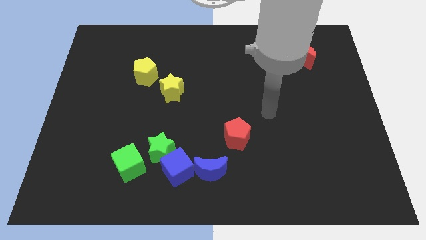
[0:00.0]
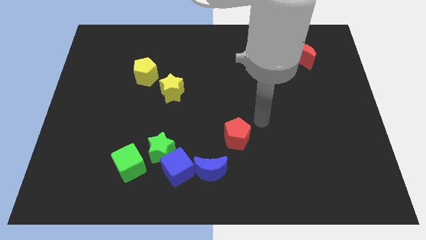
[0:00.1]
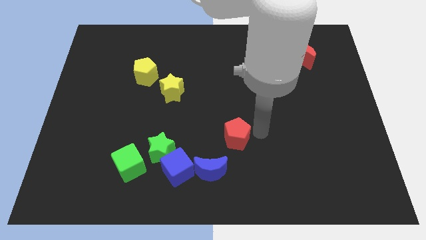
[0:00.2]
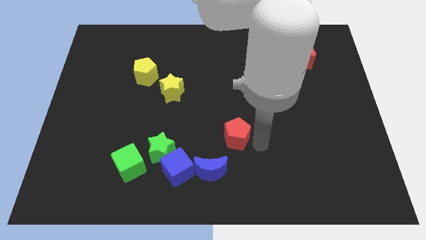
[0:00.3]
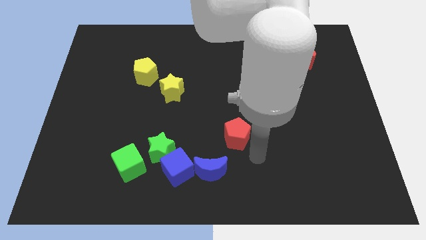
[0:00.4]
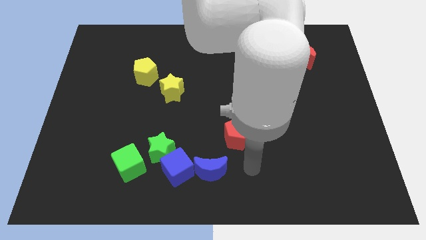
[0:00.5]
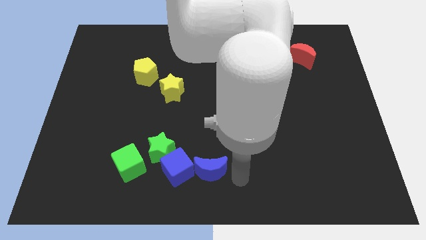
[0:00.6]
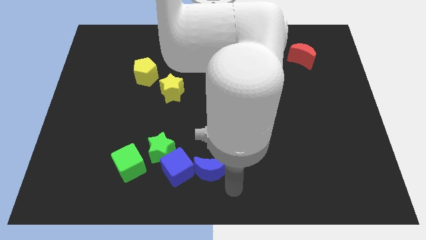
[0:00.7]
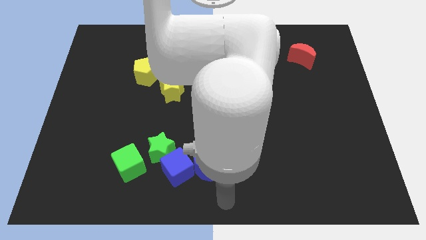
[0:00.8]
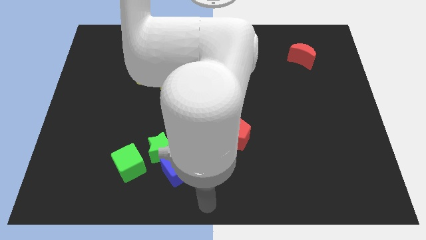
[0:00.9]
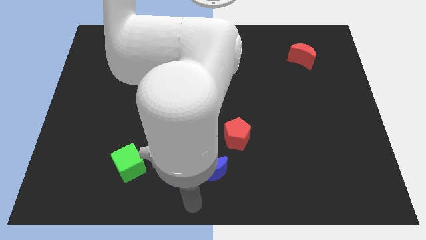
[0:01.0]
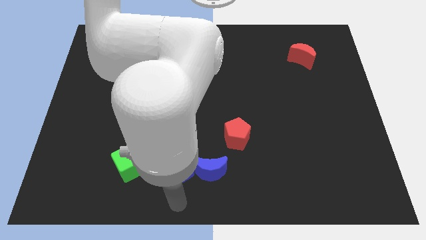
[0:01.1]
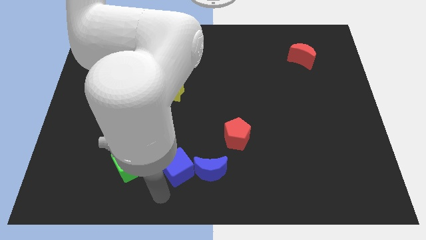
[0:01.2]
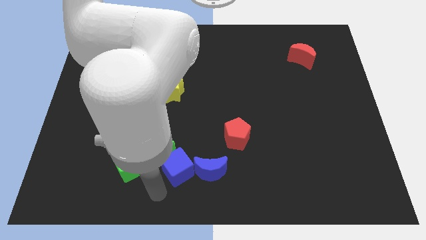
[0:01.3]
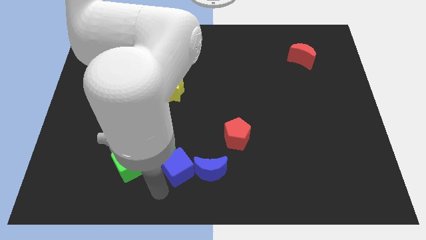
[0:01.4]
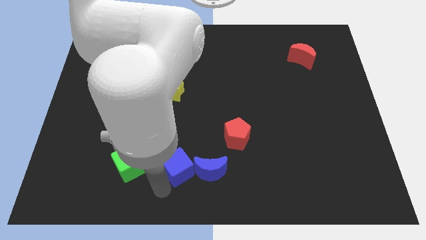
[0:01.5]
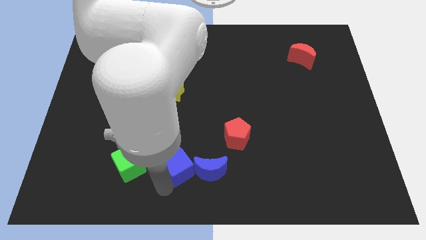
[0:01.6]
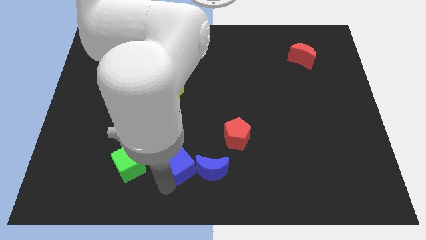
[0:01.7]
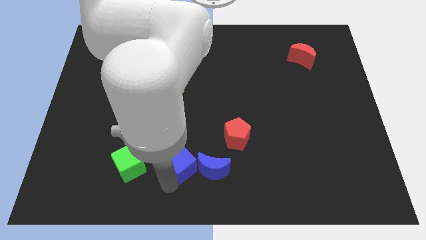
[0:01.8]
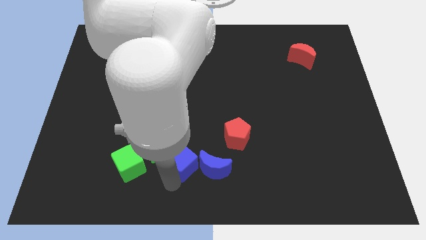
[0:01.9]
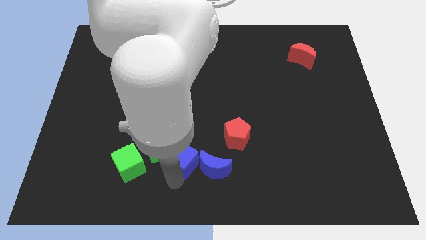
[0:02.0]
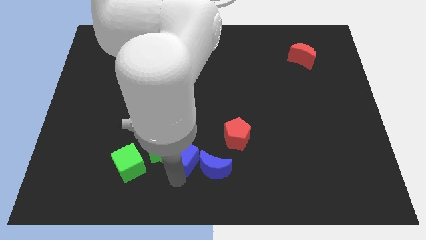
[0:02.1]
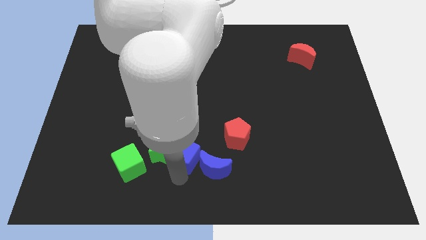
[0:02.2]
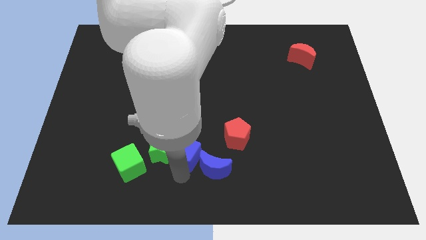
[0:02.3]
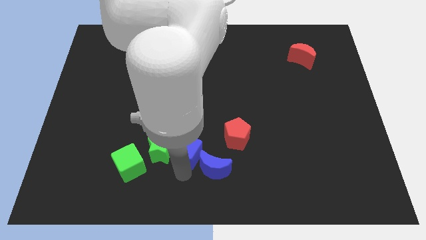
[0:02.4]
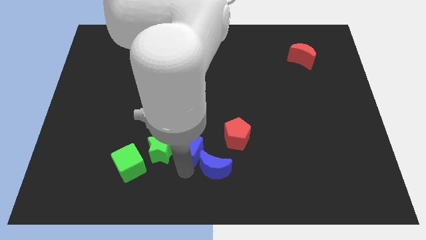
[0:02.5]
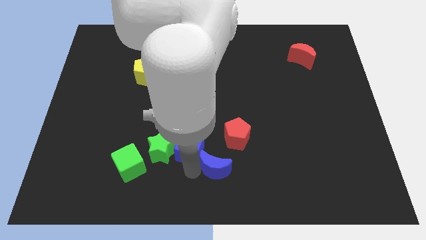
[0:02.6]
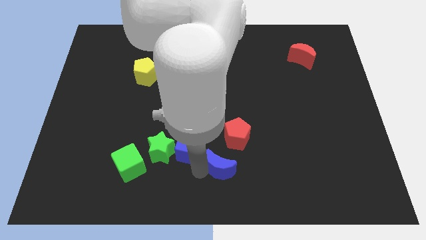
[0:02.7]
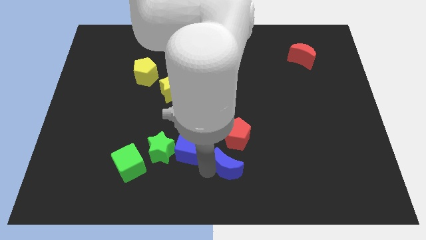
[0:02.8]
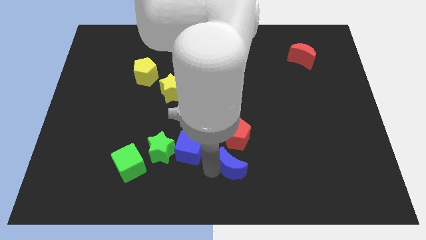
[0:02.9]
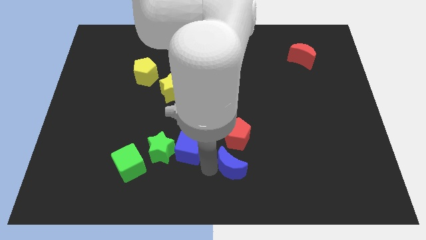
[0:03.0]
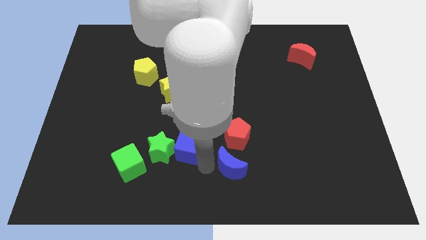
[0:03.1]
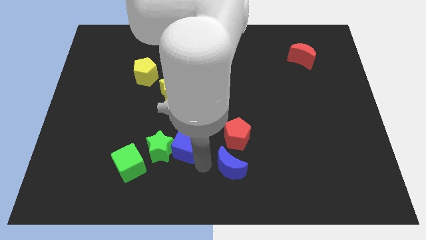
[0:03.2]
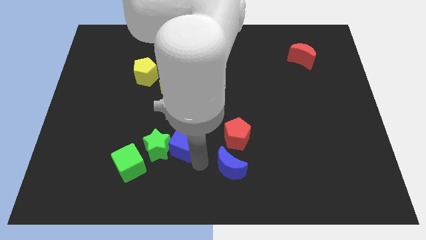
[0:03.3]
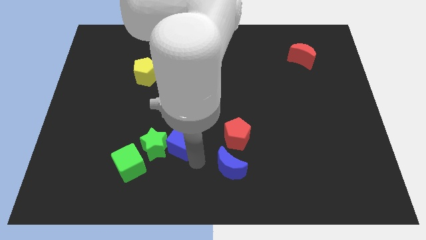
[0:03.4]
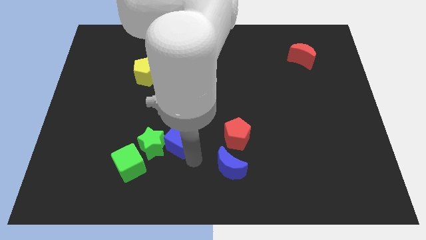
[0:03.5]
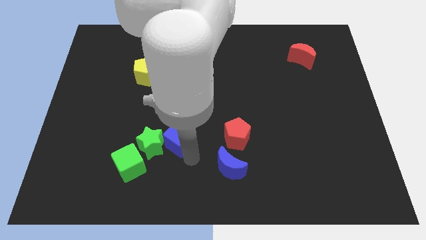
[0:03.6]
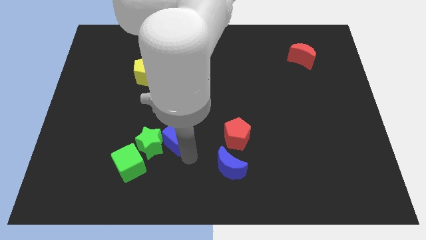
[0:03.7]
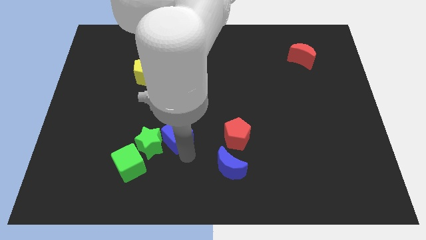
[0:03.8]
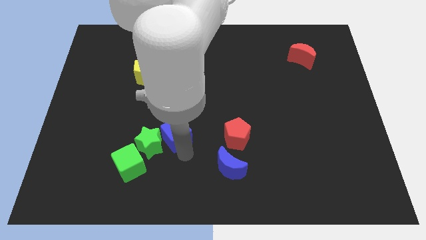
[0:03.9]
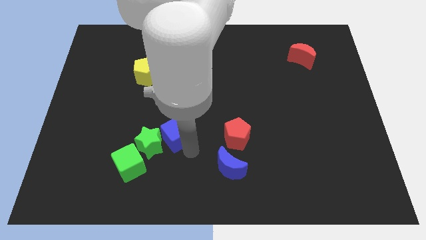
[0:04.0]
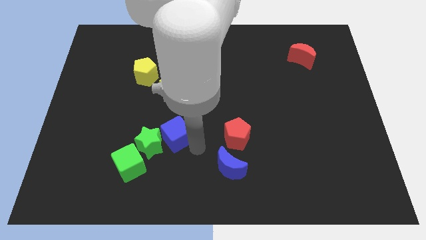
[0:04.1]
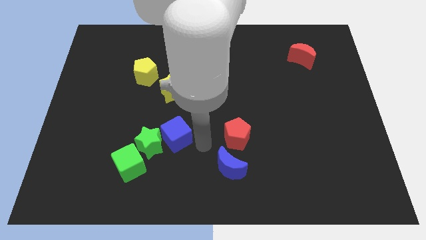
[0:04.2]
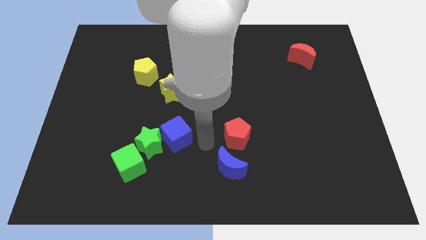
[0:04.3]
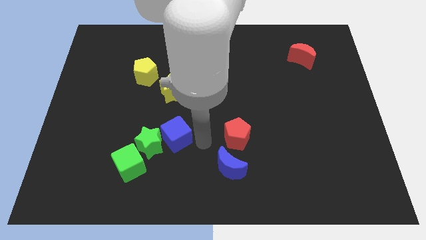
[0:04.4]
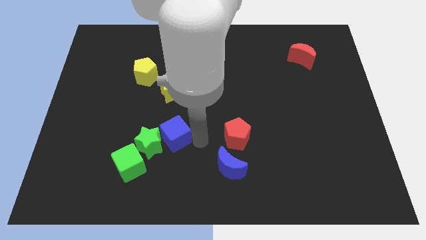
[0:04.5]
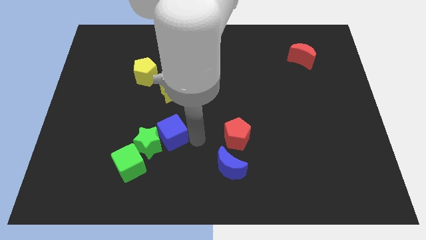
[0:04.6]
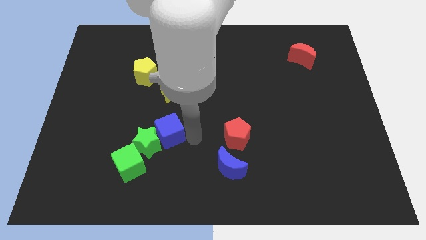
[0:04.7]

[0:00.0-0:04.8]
move the blue cube up and then left a little bit

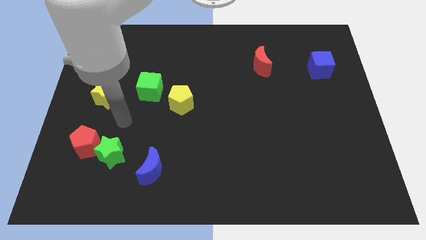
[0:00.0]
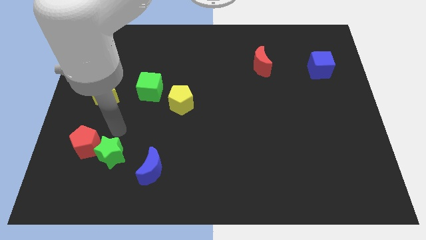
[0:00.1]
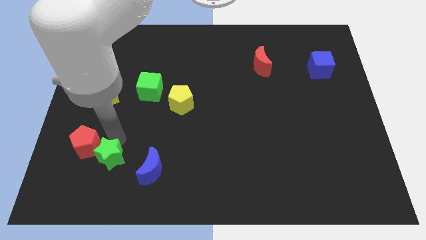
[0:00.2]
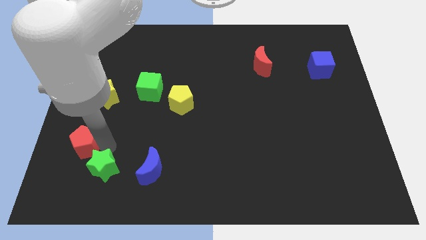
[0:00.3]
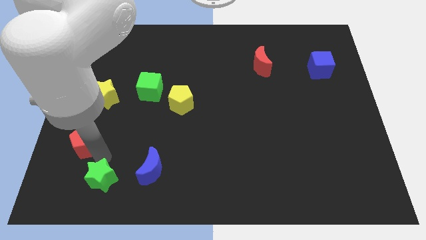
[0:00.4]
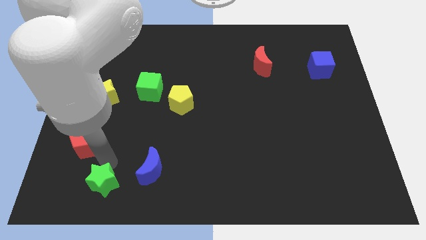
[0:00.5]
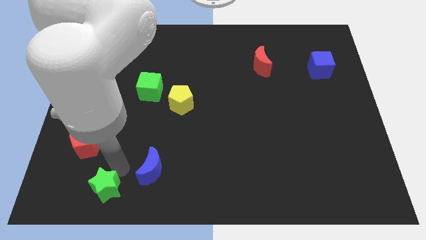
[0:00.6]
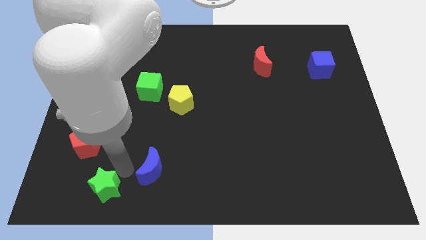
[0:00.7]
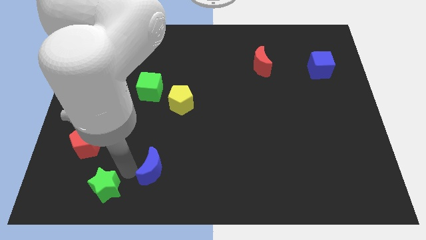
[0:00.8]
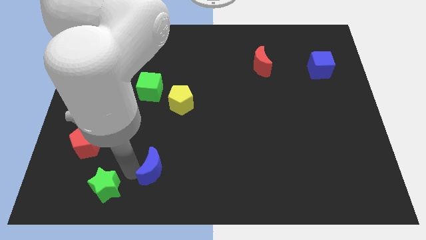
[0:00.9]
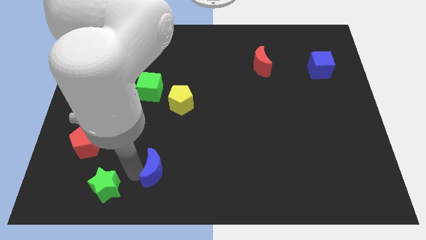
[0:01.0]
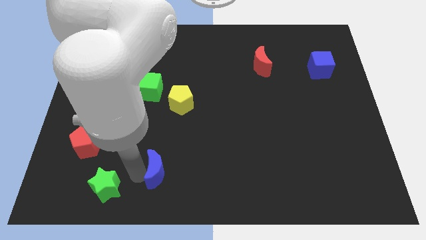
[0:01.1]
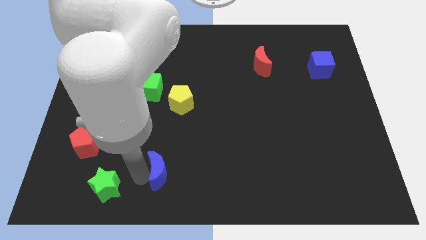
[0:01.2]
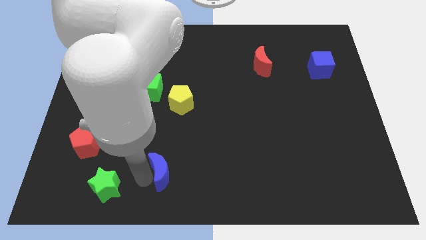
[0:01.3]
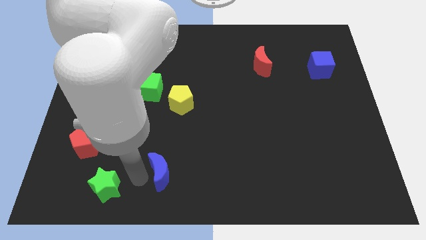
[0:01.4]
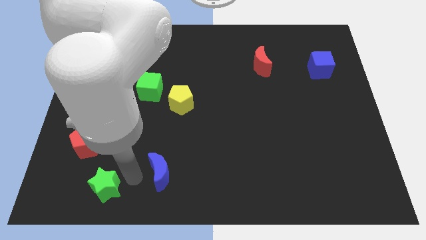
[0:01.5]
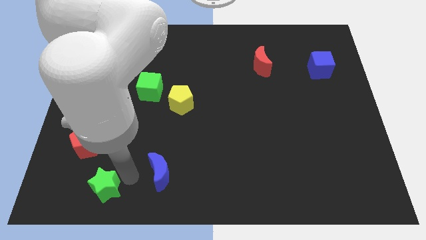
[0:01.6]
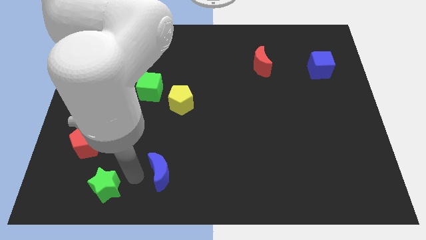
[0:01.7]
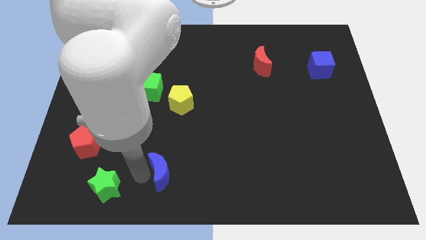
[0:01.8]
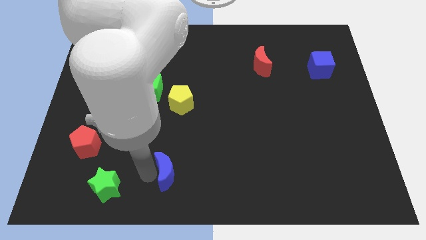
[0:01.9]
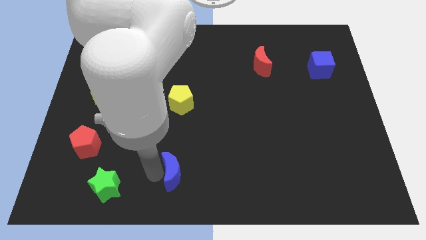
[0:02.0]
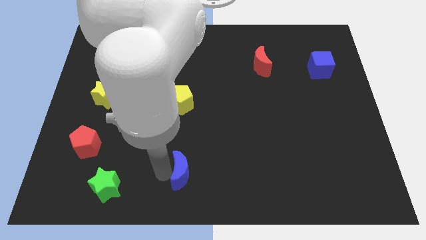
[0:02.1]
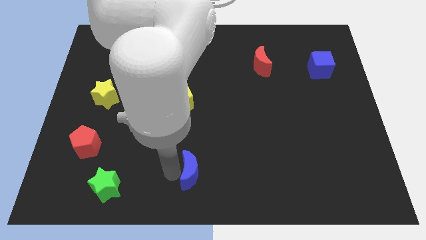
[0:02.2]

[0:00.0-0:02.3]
slide the blue moon a bit to the right

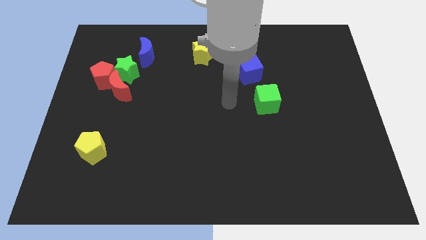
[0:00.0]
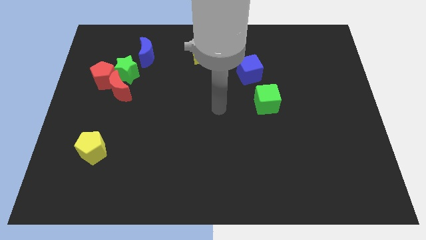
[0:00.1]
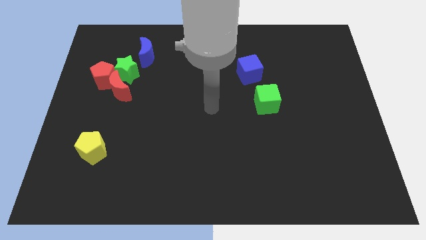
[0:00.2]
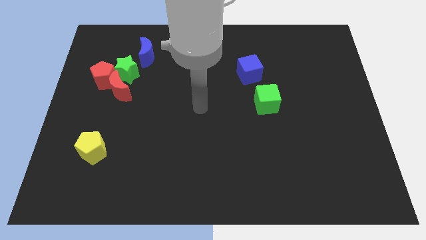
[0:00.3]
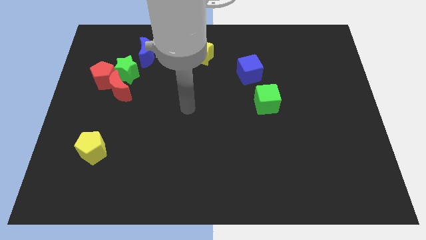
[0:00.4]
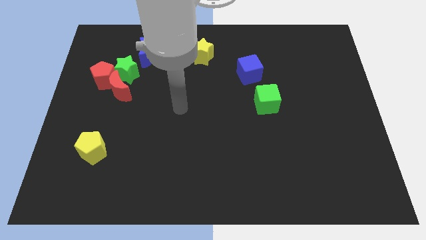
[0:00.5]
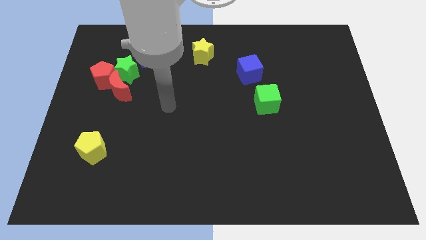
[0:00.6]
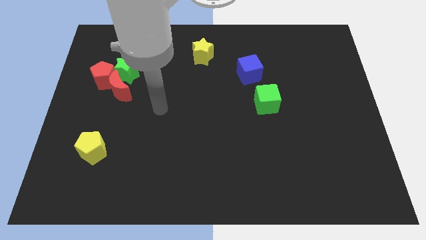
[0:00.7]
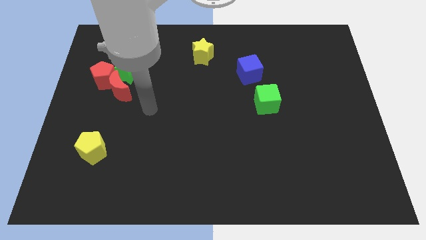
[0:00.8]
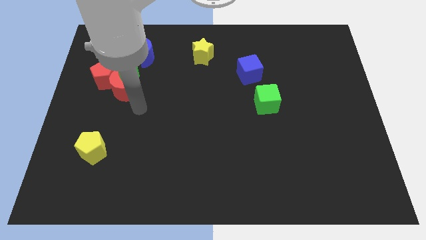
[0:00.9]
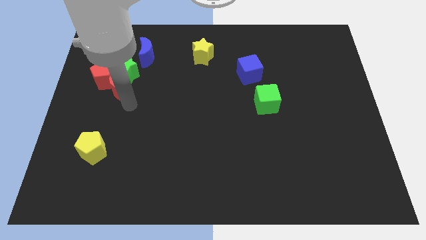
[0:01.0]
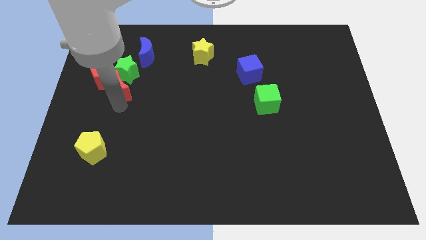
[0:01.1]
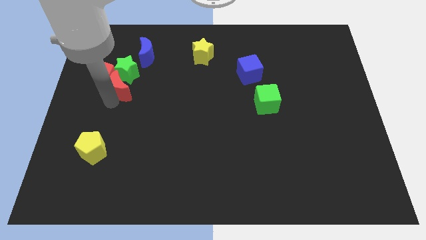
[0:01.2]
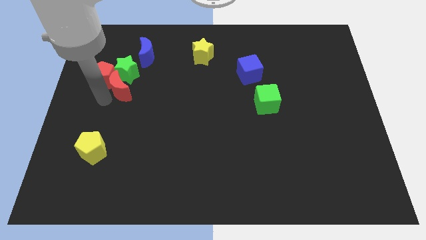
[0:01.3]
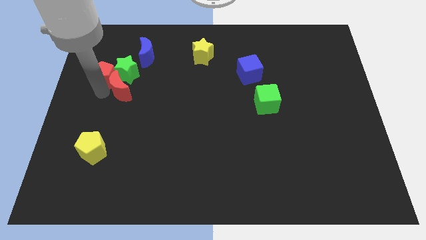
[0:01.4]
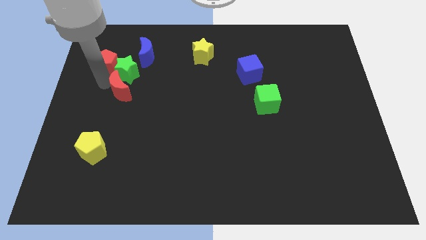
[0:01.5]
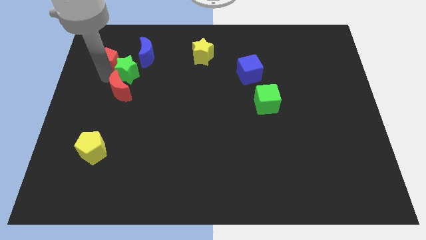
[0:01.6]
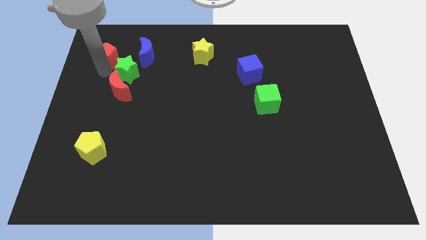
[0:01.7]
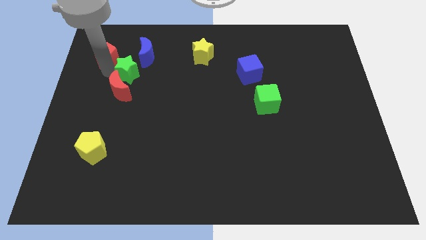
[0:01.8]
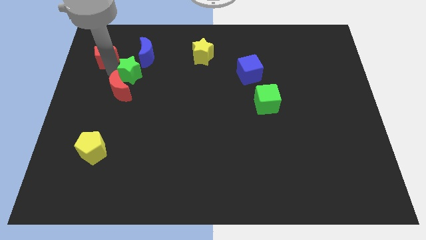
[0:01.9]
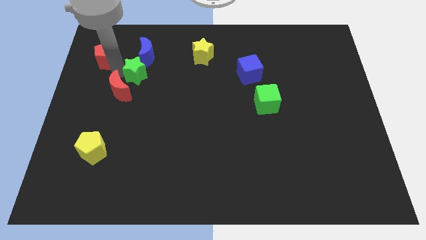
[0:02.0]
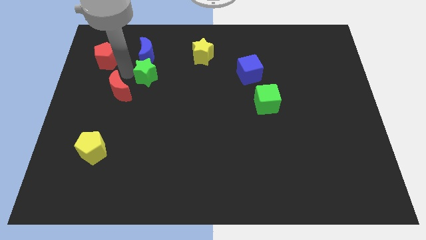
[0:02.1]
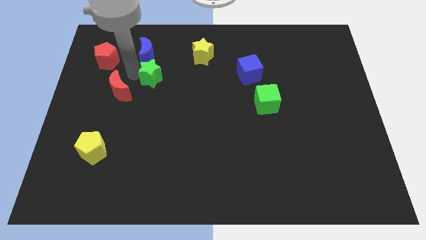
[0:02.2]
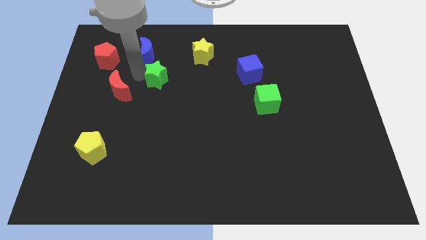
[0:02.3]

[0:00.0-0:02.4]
push the green star a little to the right
